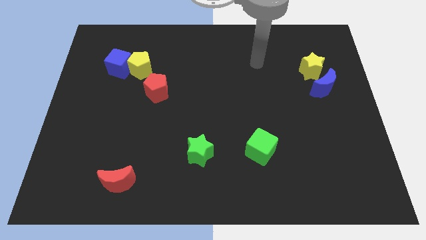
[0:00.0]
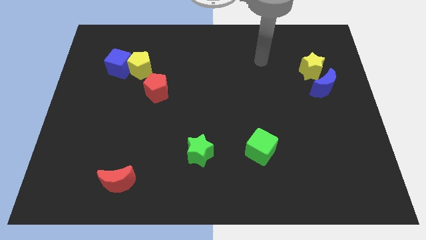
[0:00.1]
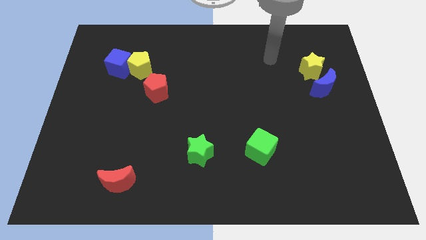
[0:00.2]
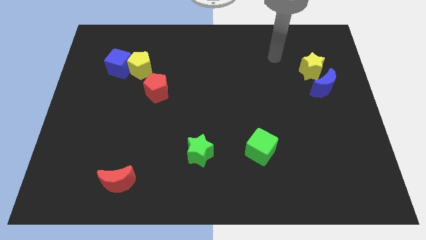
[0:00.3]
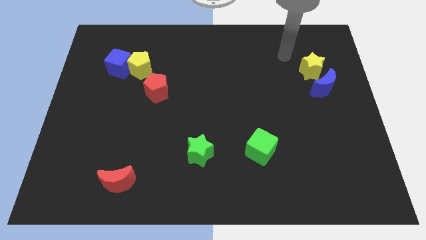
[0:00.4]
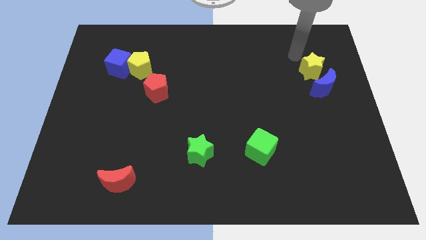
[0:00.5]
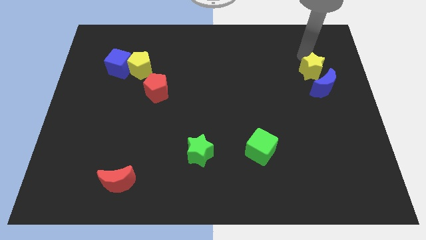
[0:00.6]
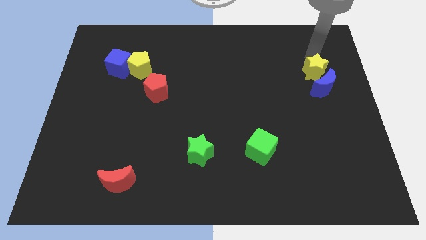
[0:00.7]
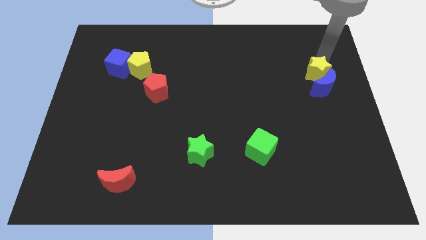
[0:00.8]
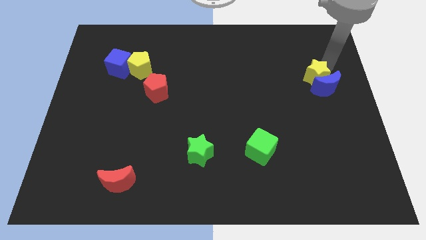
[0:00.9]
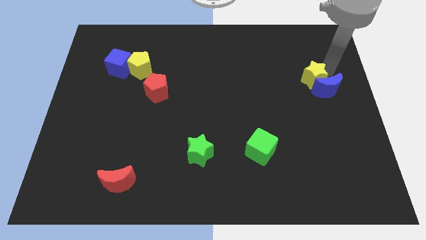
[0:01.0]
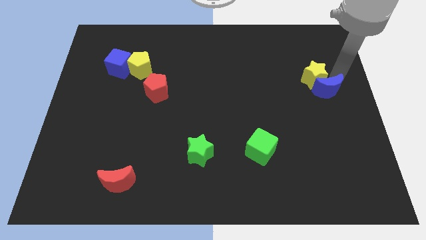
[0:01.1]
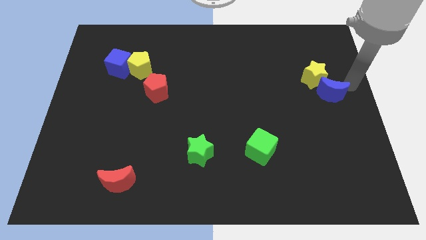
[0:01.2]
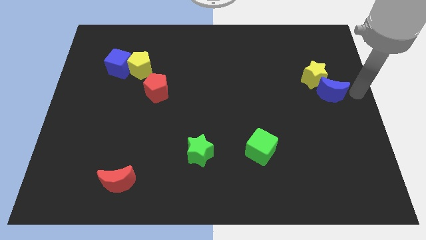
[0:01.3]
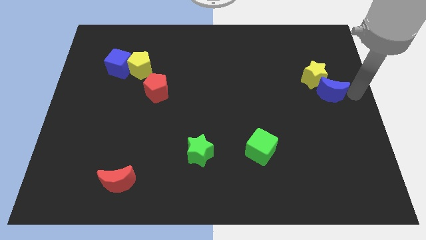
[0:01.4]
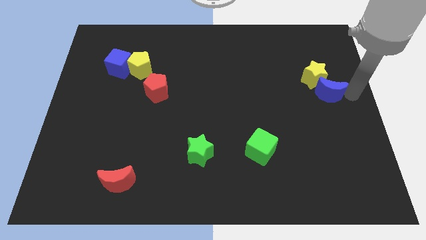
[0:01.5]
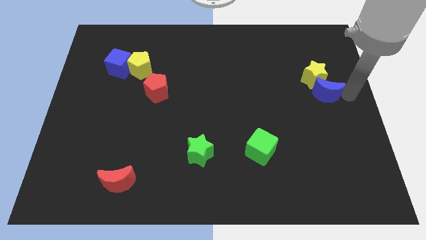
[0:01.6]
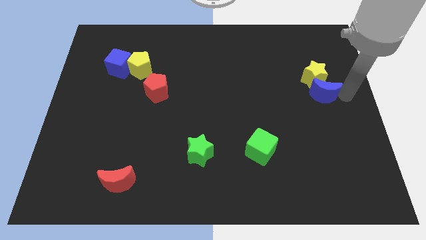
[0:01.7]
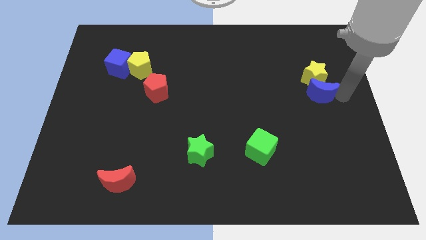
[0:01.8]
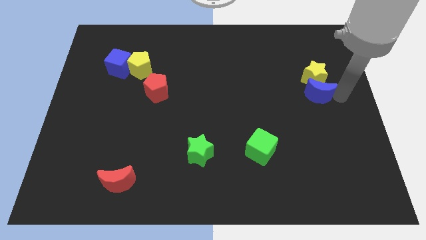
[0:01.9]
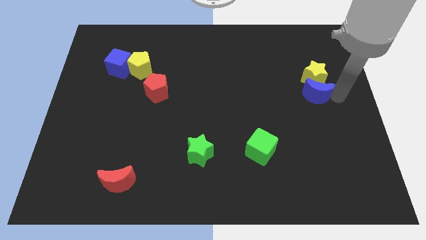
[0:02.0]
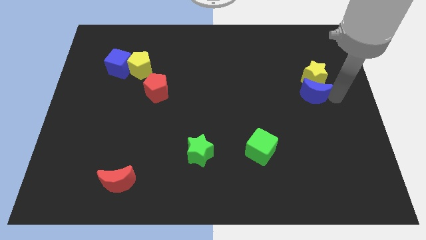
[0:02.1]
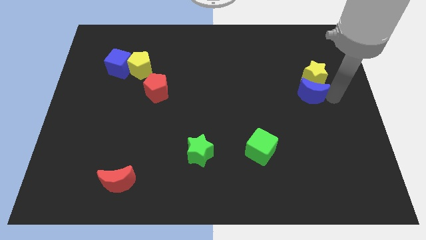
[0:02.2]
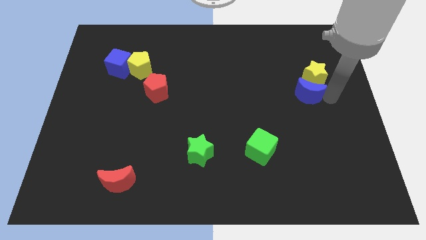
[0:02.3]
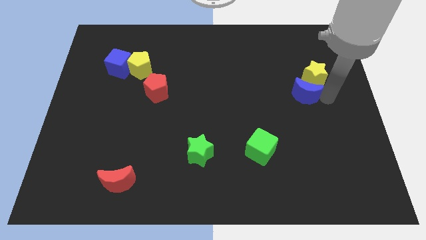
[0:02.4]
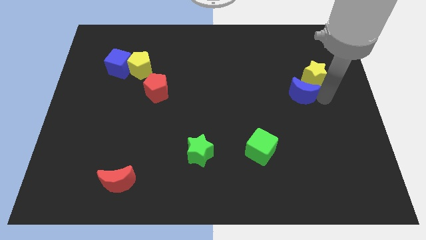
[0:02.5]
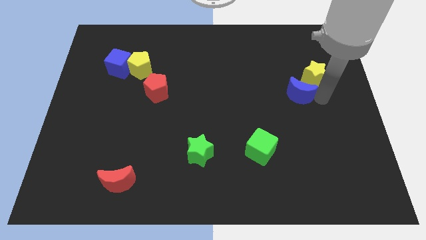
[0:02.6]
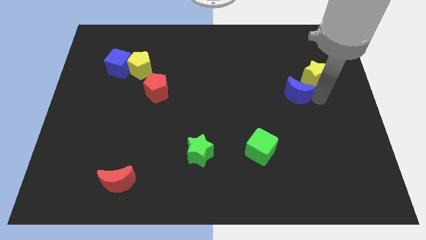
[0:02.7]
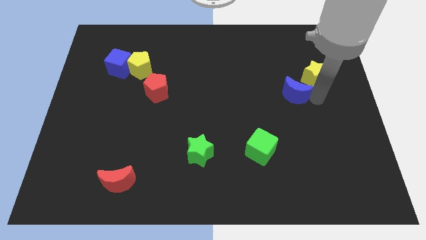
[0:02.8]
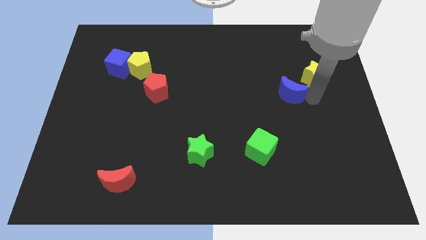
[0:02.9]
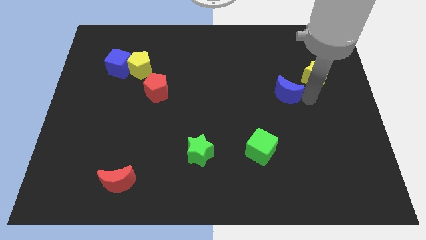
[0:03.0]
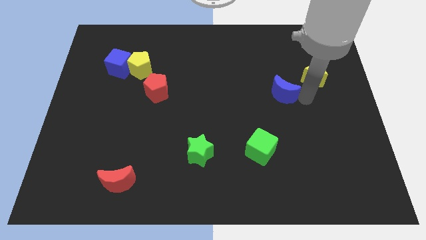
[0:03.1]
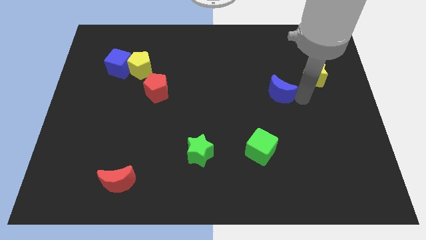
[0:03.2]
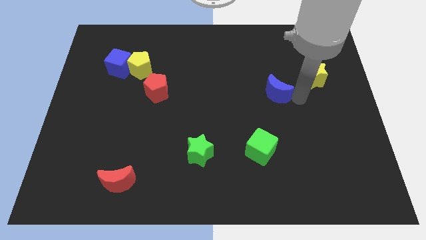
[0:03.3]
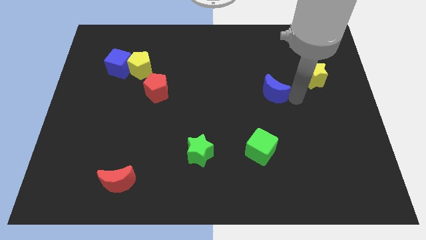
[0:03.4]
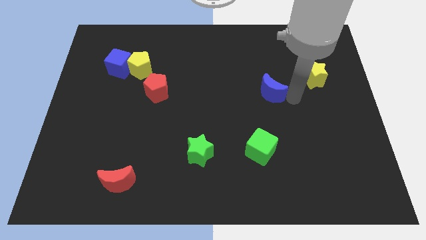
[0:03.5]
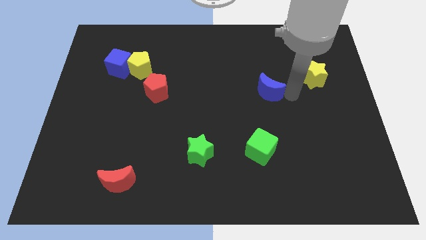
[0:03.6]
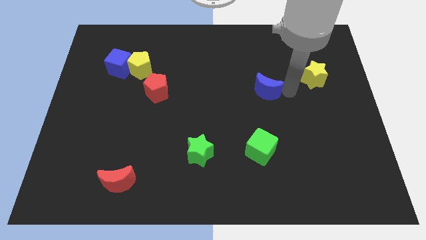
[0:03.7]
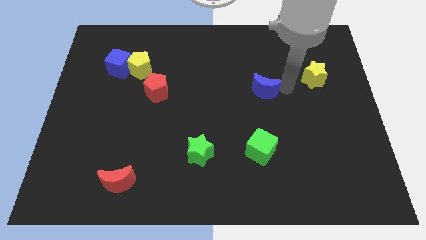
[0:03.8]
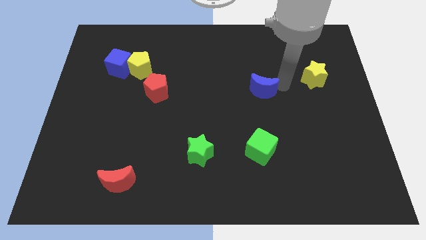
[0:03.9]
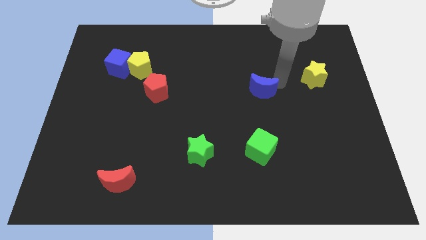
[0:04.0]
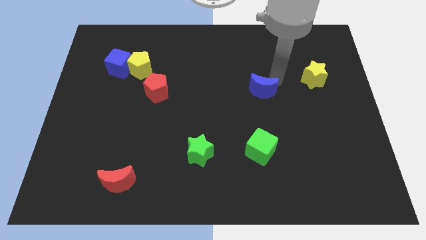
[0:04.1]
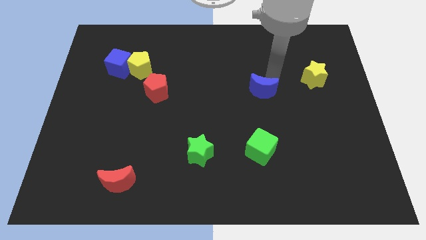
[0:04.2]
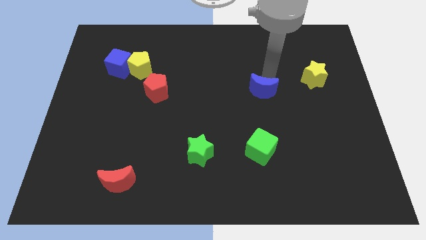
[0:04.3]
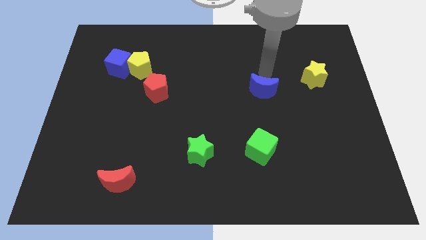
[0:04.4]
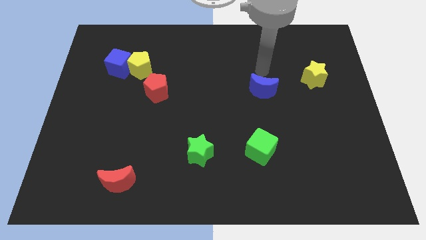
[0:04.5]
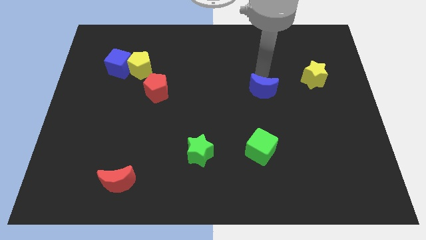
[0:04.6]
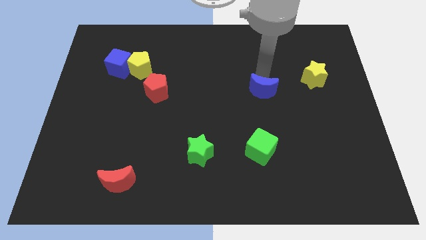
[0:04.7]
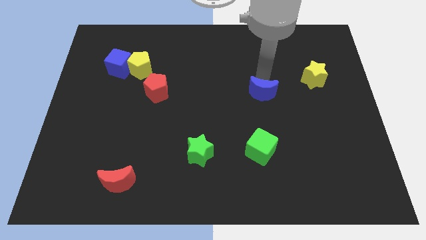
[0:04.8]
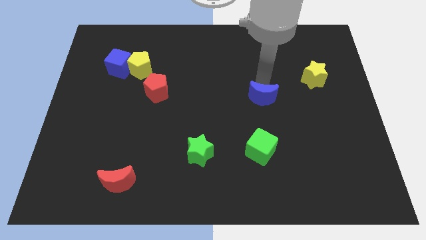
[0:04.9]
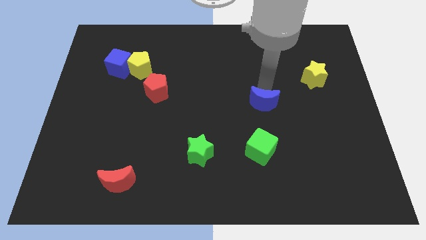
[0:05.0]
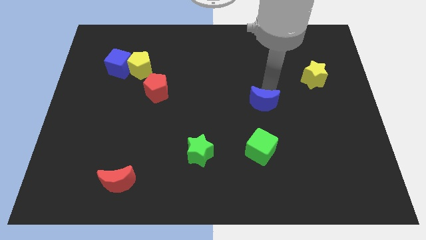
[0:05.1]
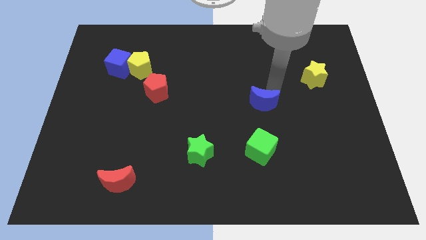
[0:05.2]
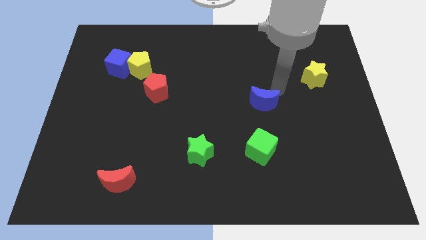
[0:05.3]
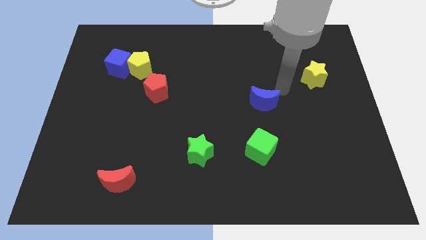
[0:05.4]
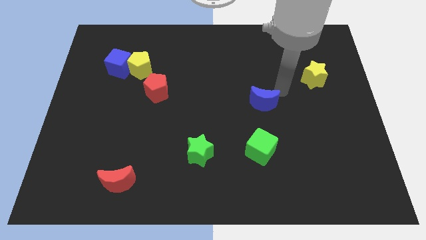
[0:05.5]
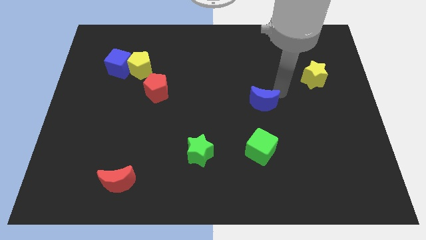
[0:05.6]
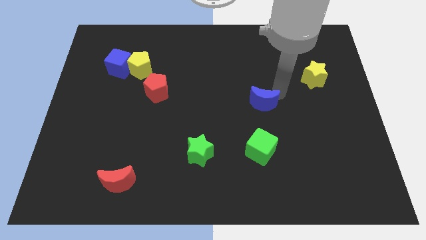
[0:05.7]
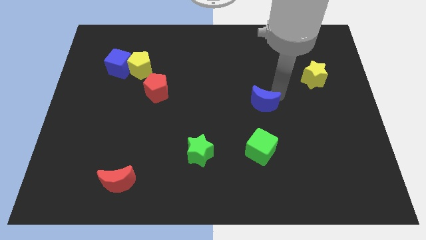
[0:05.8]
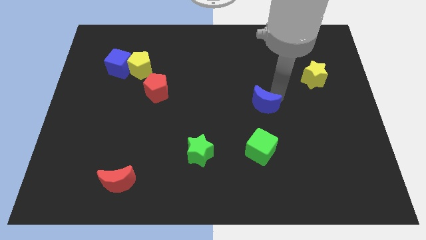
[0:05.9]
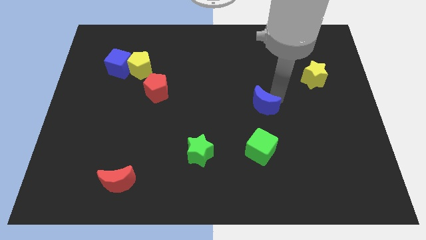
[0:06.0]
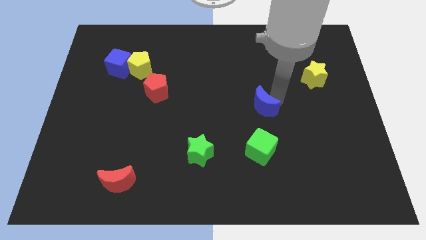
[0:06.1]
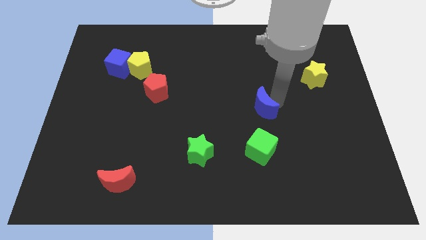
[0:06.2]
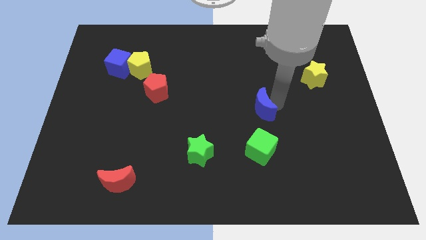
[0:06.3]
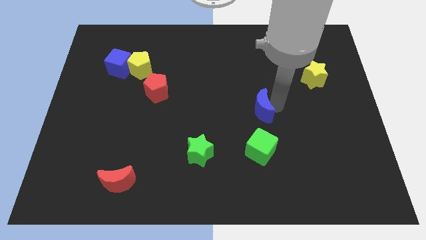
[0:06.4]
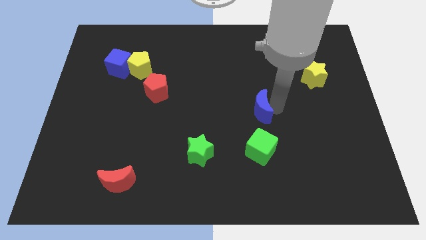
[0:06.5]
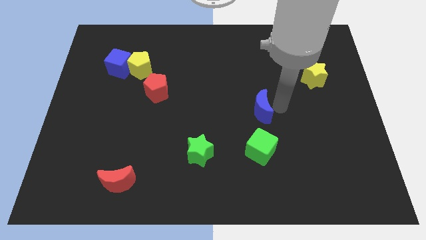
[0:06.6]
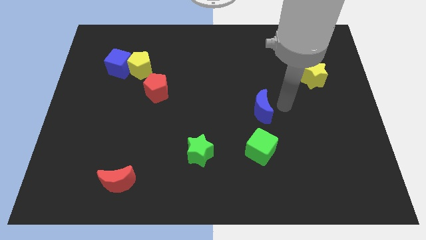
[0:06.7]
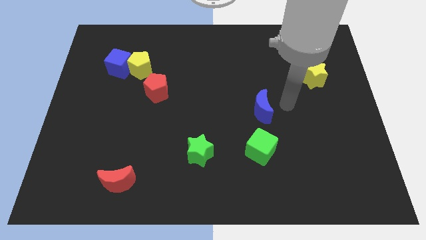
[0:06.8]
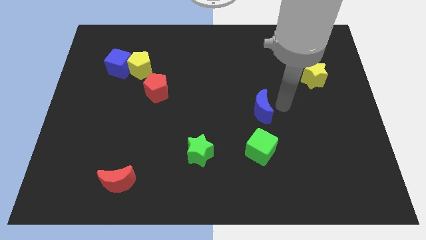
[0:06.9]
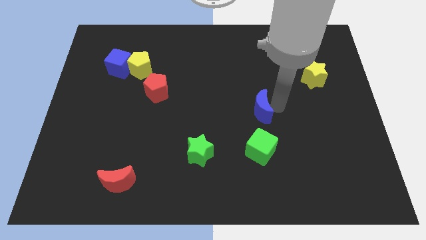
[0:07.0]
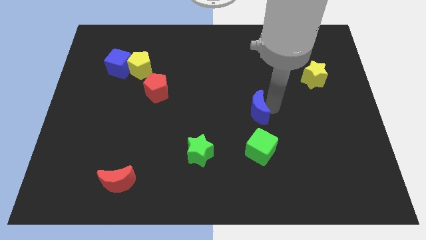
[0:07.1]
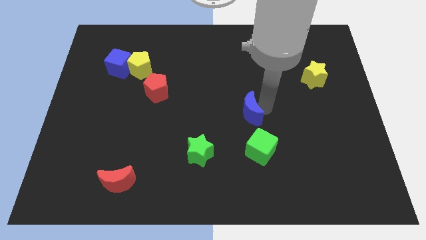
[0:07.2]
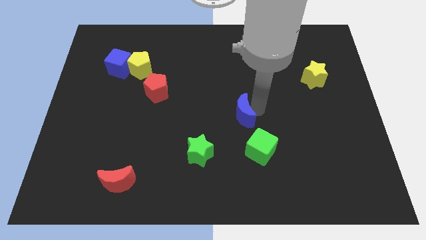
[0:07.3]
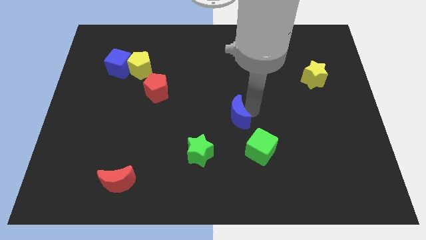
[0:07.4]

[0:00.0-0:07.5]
slide the blue moon to the top right of the green star
